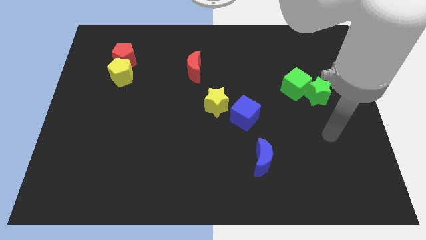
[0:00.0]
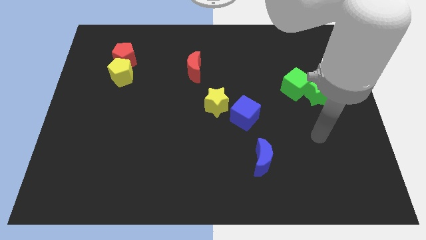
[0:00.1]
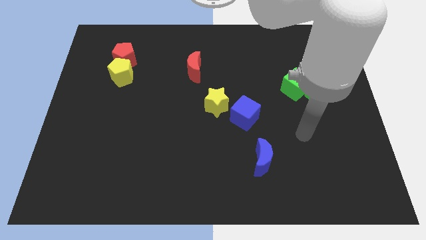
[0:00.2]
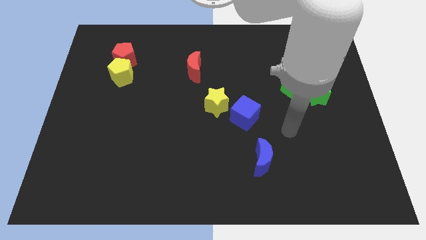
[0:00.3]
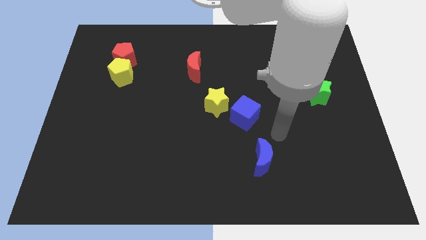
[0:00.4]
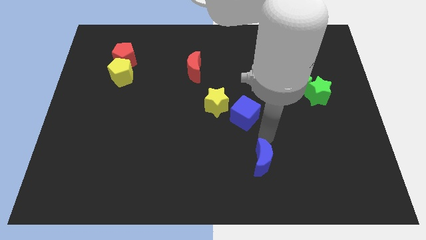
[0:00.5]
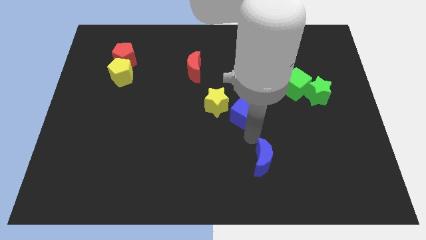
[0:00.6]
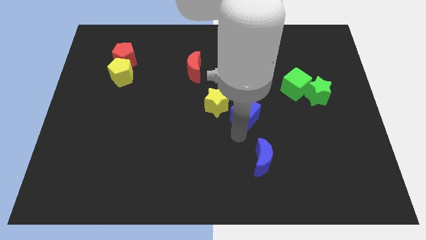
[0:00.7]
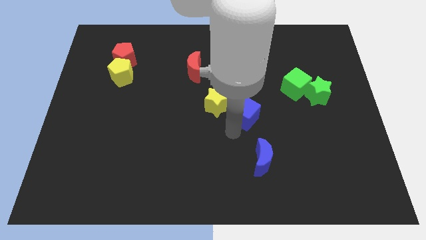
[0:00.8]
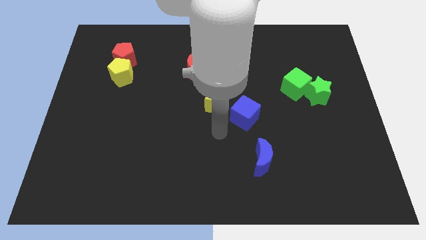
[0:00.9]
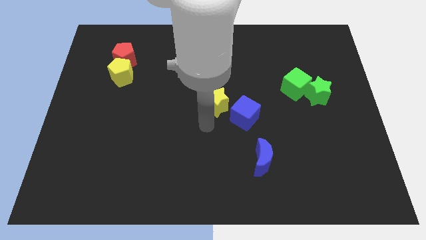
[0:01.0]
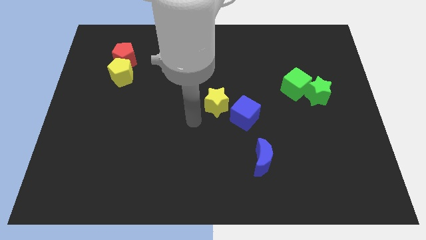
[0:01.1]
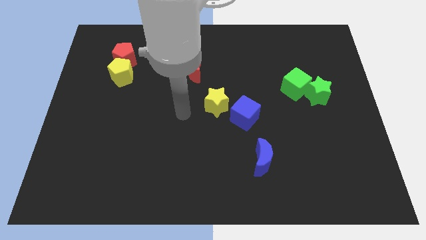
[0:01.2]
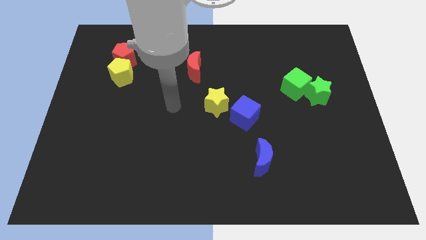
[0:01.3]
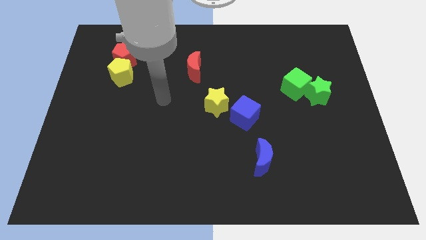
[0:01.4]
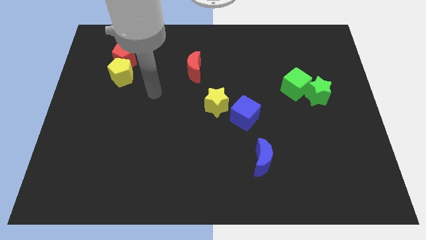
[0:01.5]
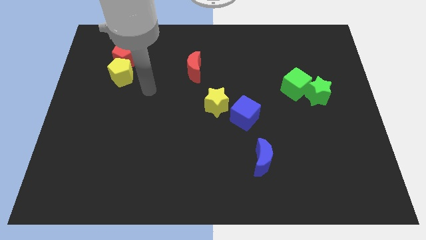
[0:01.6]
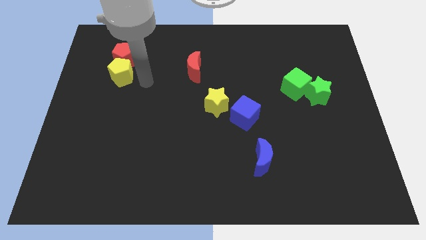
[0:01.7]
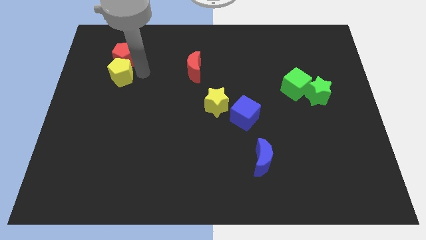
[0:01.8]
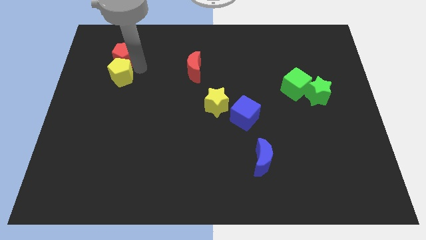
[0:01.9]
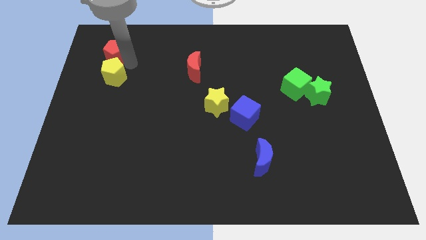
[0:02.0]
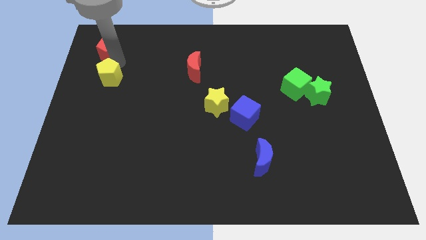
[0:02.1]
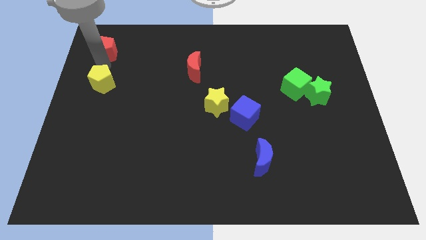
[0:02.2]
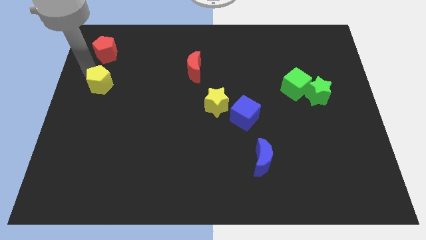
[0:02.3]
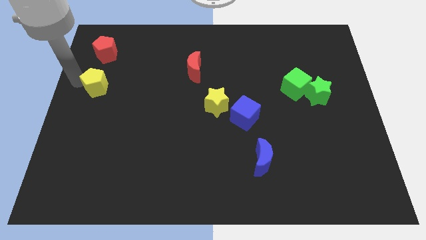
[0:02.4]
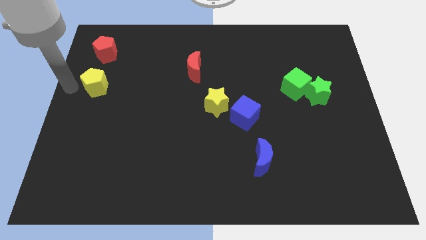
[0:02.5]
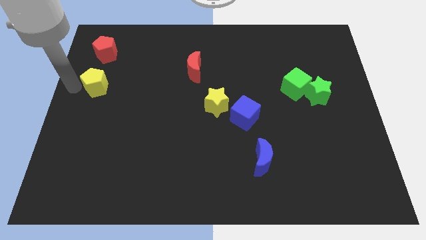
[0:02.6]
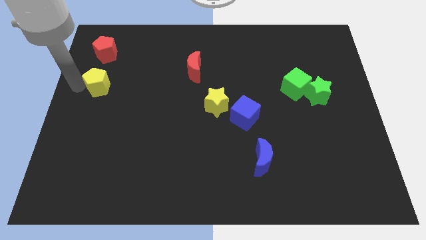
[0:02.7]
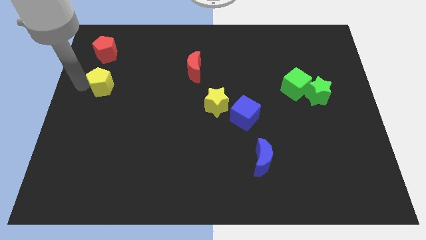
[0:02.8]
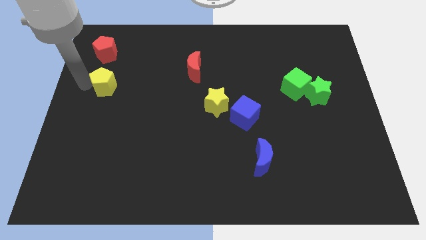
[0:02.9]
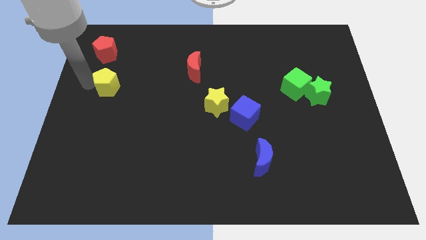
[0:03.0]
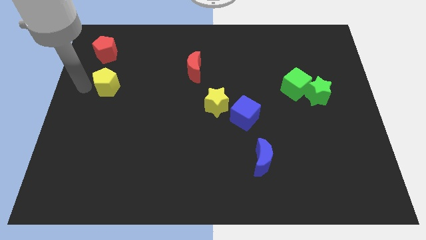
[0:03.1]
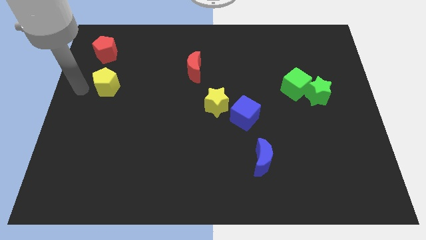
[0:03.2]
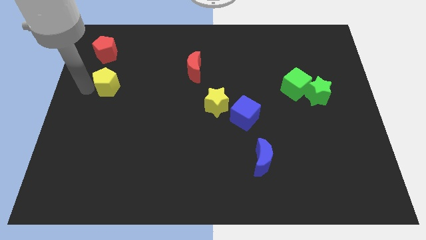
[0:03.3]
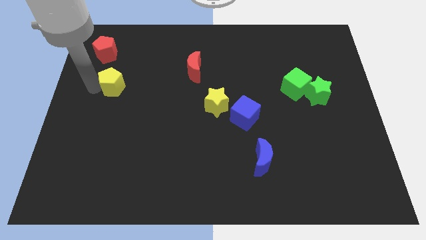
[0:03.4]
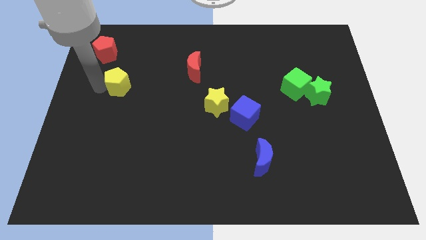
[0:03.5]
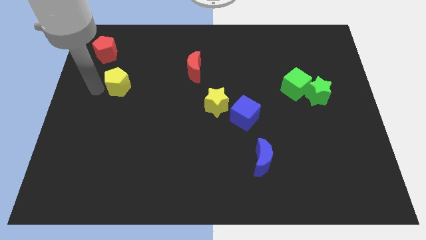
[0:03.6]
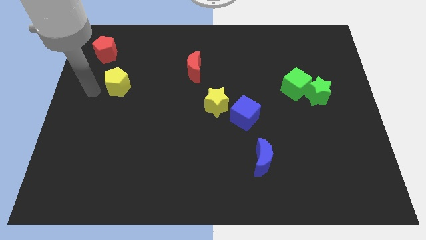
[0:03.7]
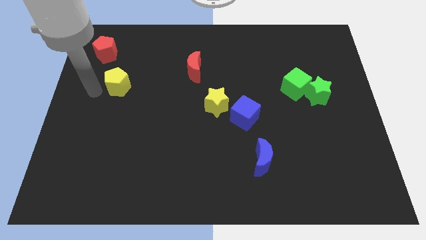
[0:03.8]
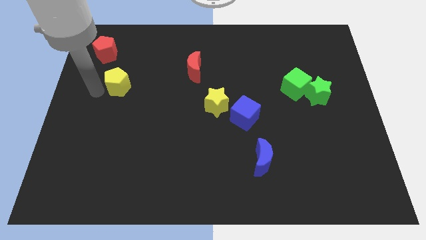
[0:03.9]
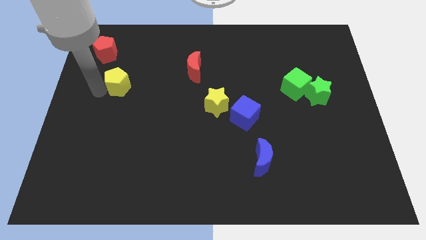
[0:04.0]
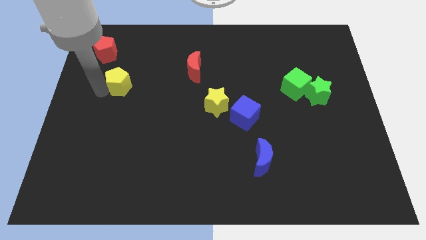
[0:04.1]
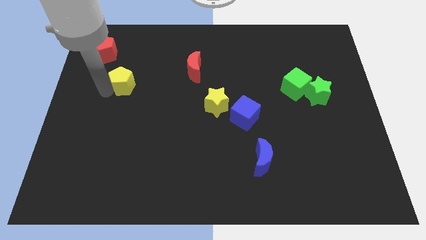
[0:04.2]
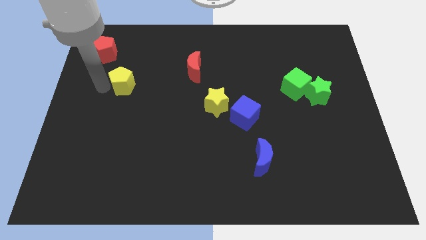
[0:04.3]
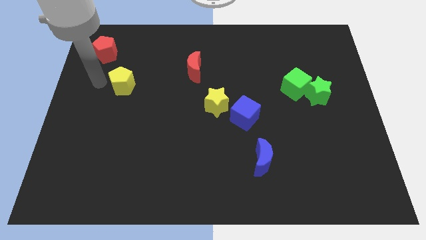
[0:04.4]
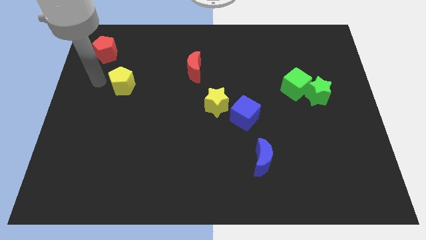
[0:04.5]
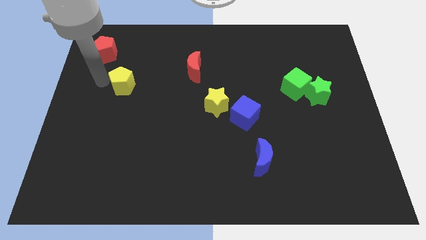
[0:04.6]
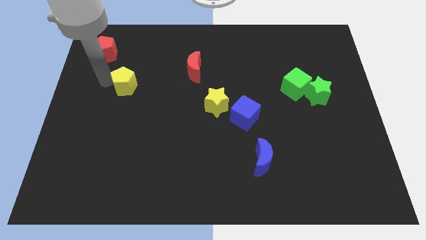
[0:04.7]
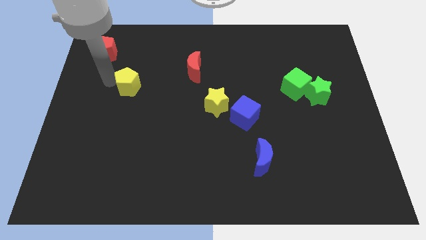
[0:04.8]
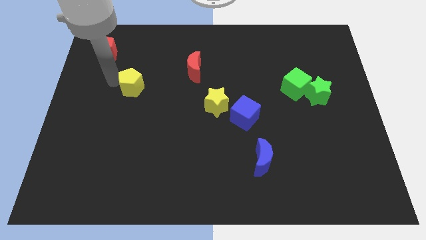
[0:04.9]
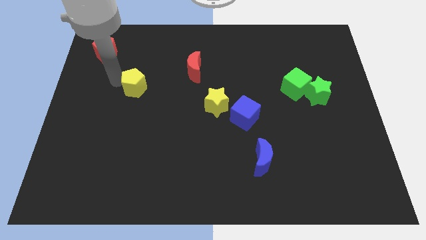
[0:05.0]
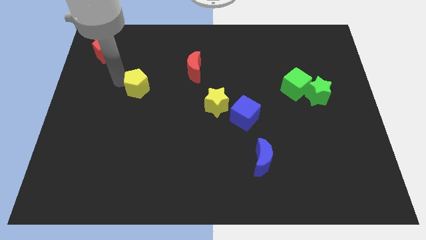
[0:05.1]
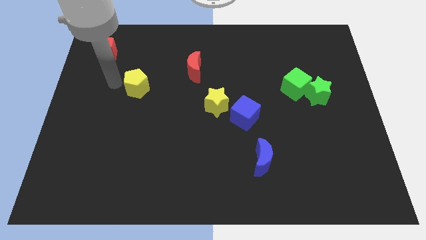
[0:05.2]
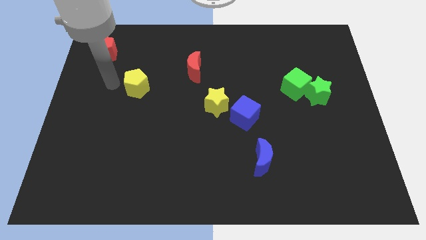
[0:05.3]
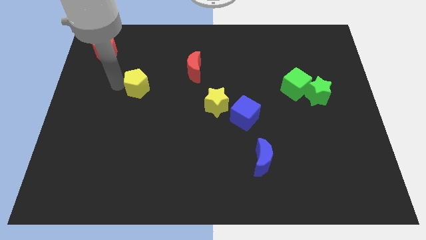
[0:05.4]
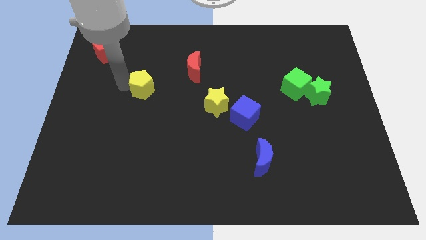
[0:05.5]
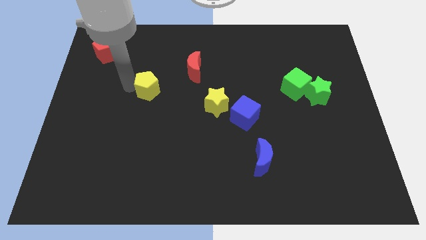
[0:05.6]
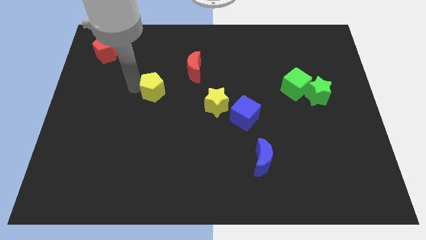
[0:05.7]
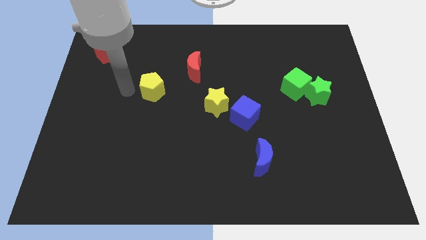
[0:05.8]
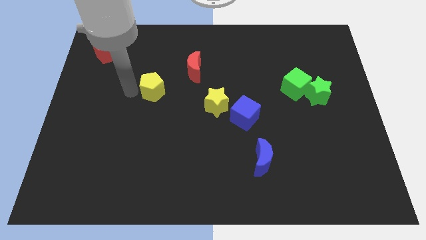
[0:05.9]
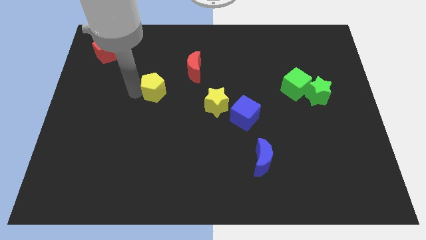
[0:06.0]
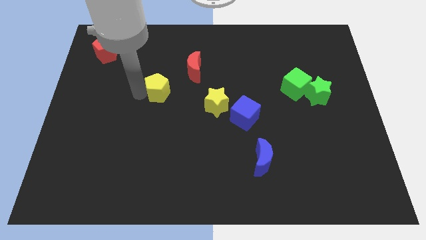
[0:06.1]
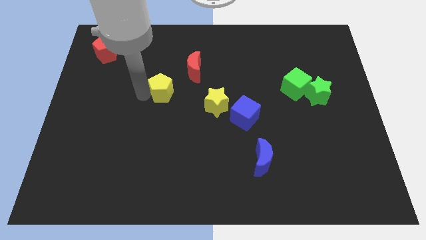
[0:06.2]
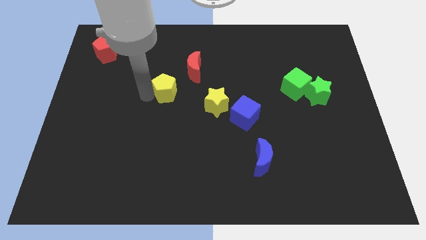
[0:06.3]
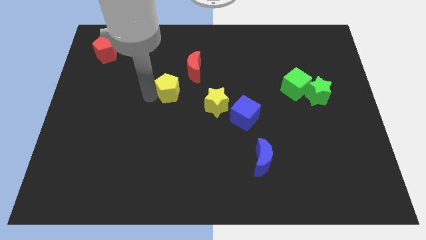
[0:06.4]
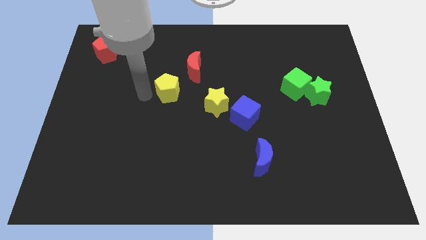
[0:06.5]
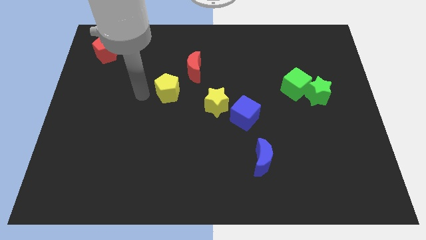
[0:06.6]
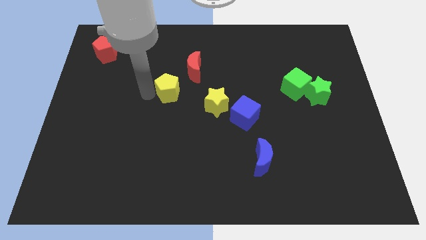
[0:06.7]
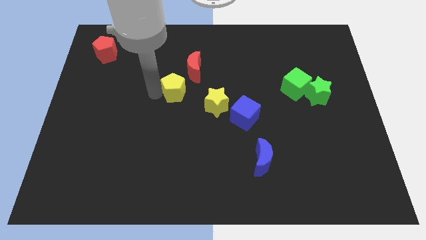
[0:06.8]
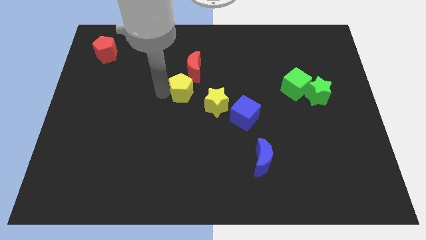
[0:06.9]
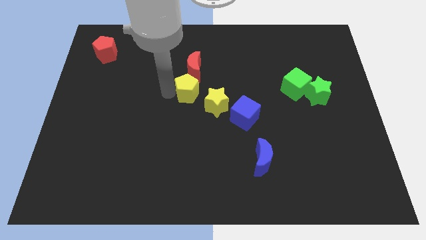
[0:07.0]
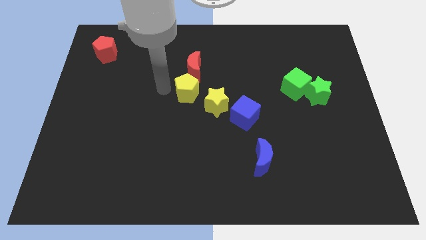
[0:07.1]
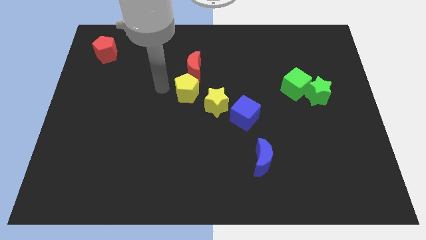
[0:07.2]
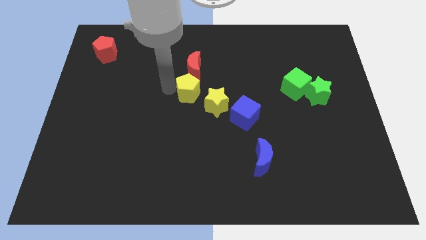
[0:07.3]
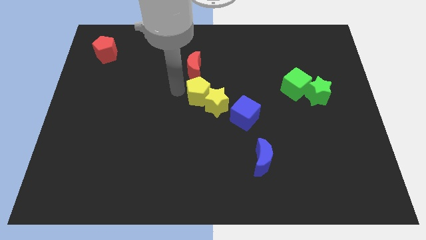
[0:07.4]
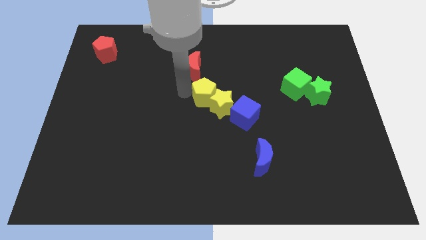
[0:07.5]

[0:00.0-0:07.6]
put the yellow pentagon to the top left of the blue cube
